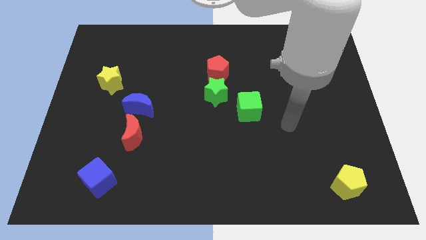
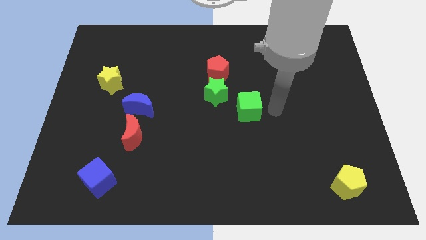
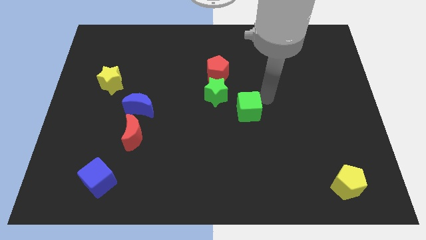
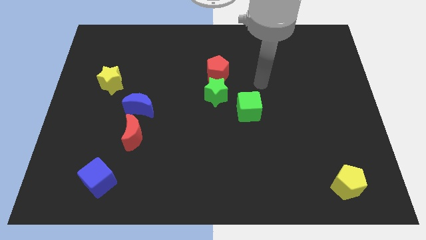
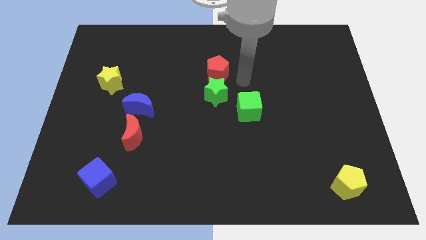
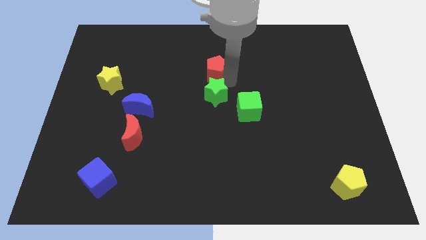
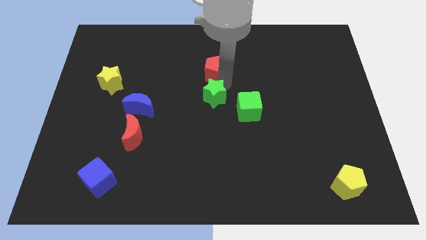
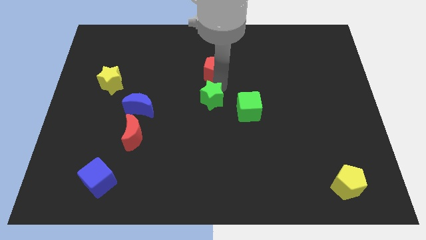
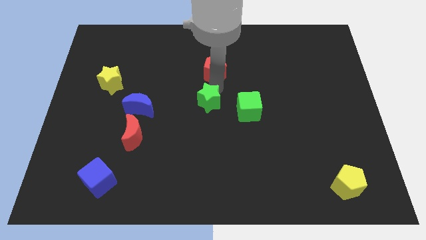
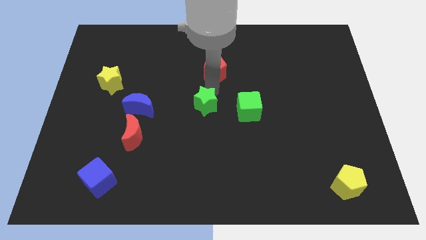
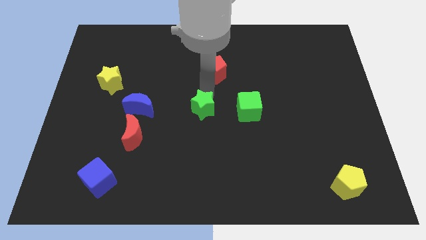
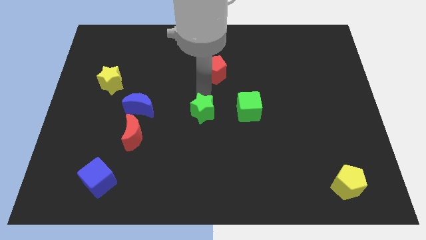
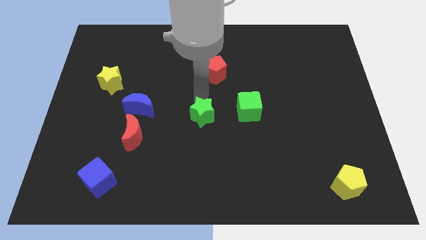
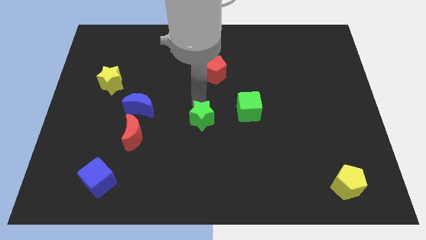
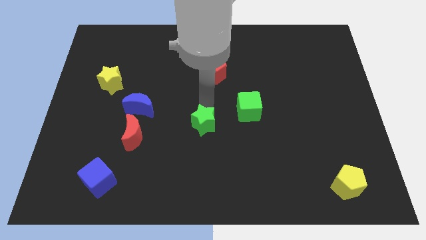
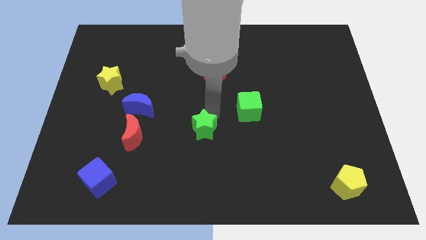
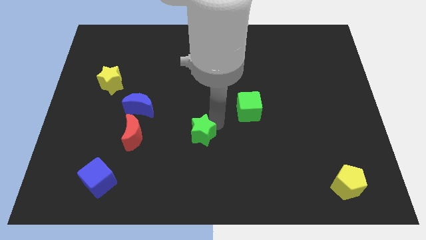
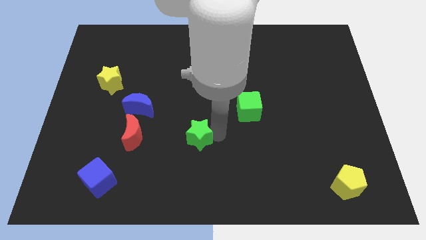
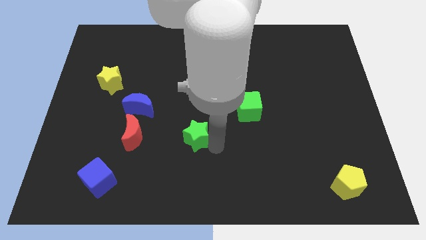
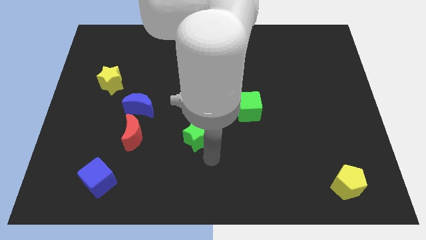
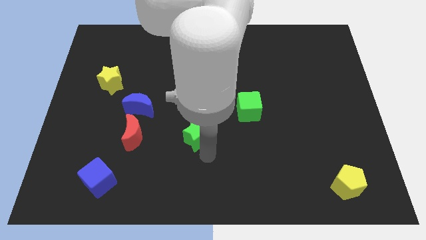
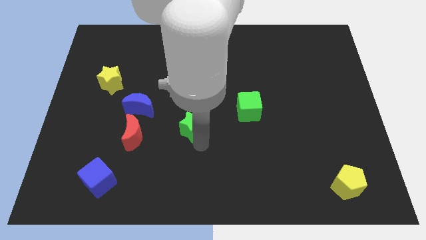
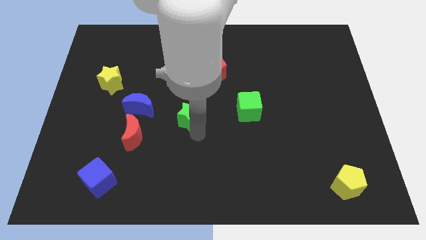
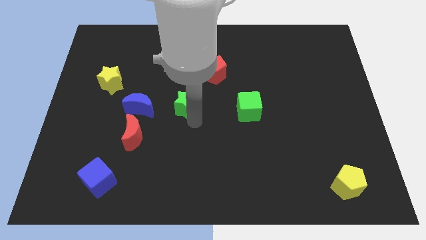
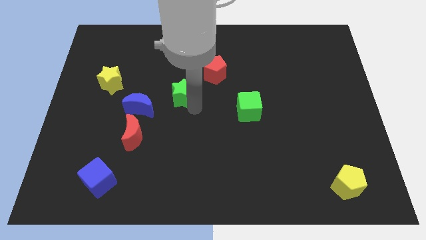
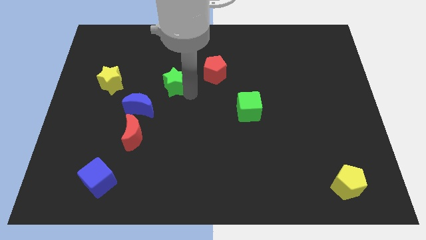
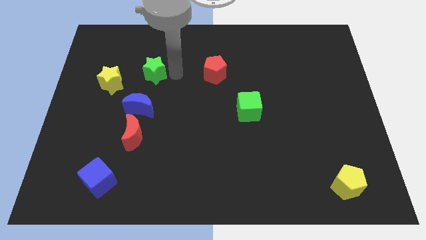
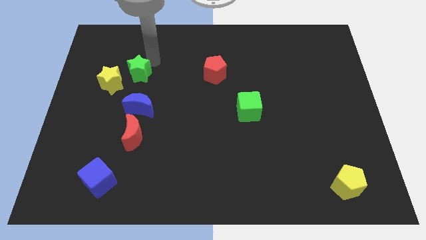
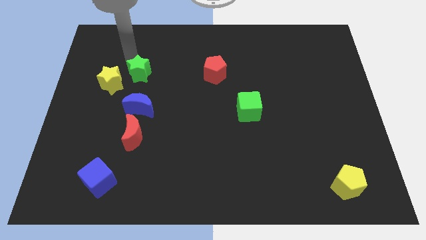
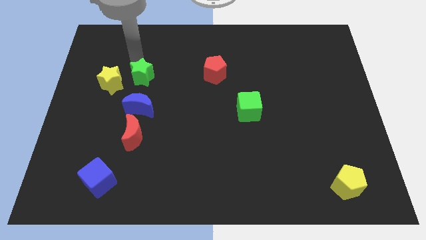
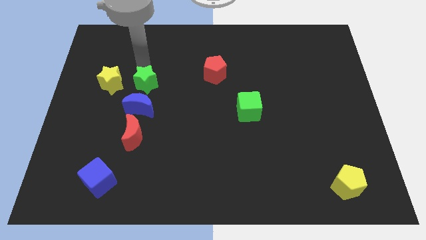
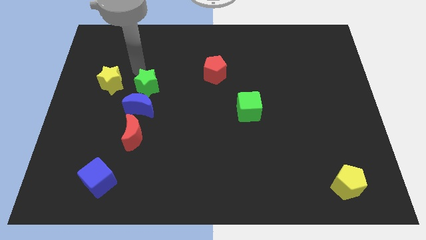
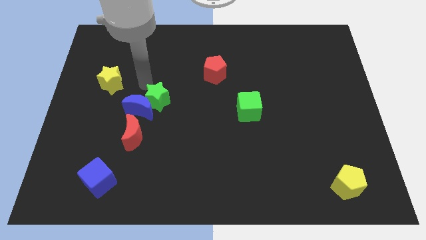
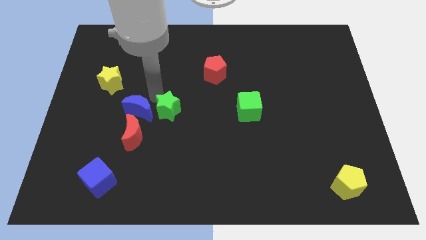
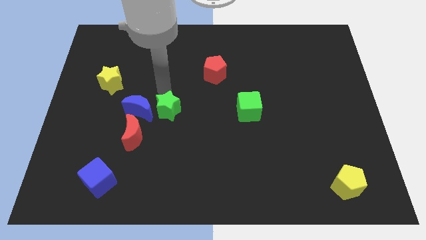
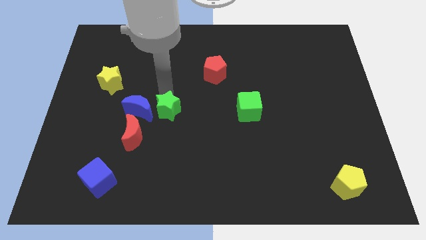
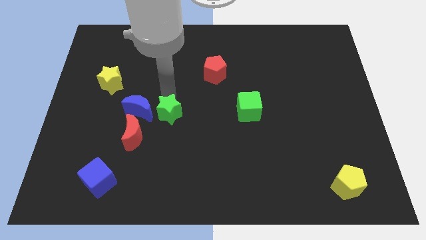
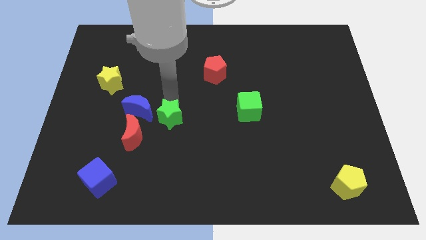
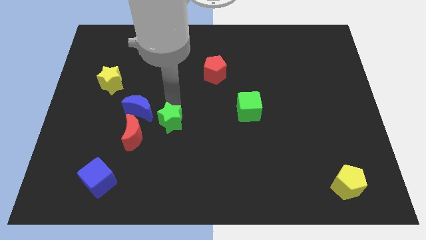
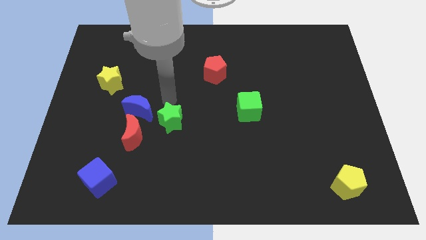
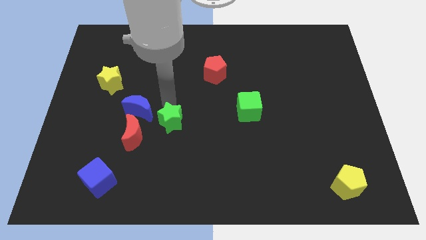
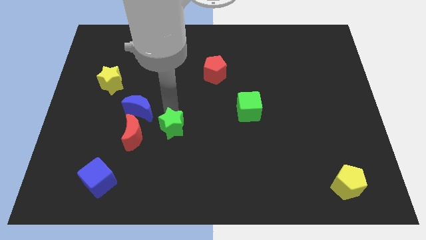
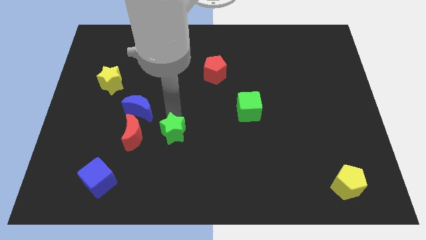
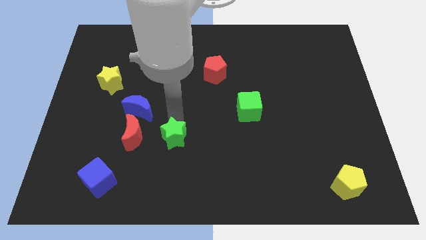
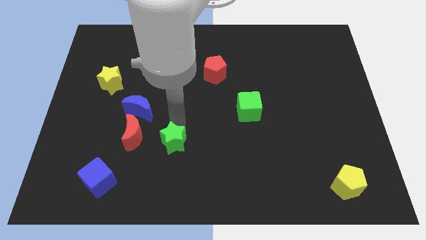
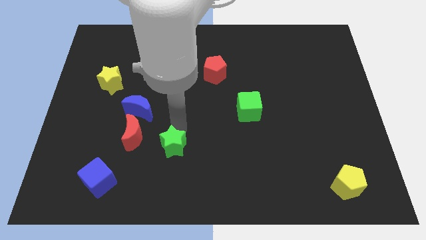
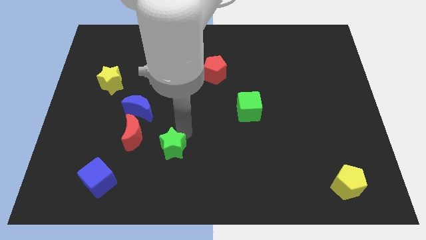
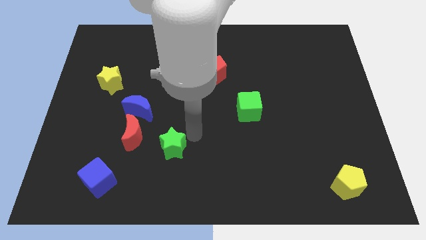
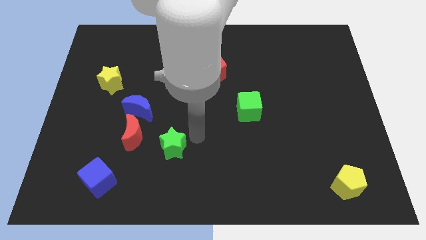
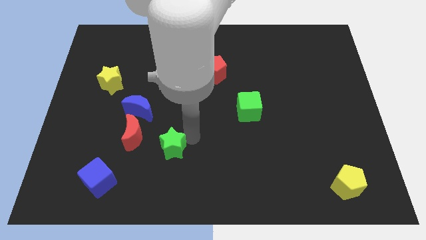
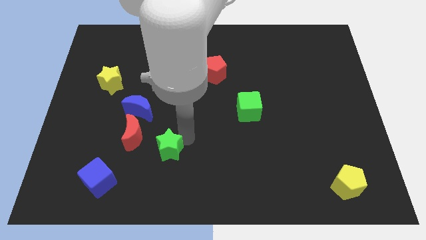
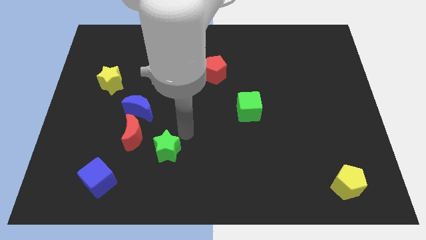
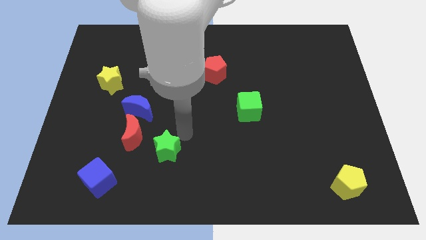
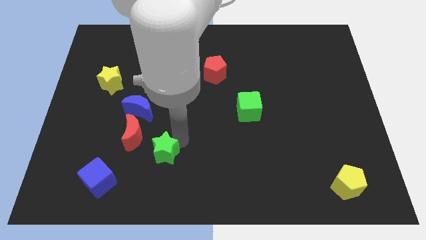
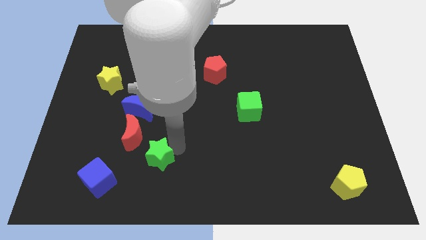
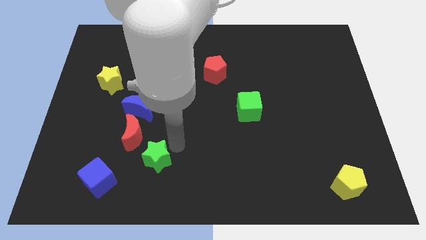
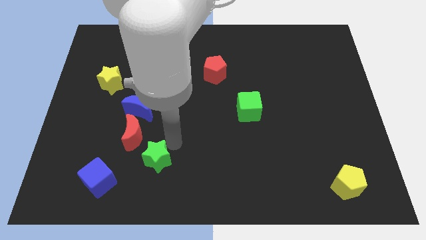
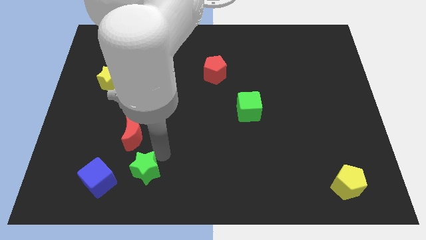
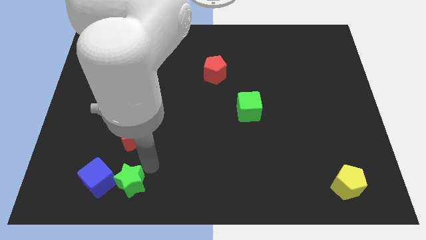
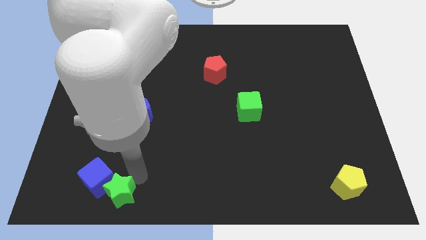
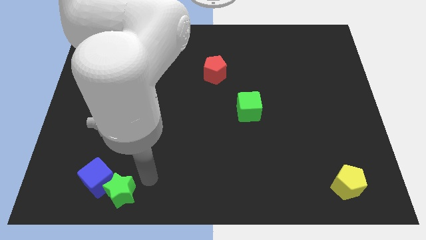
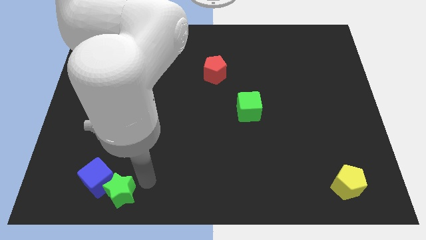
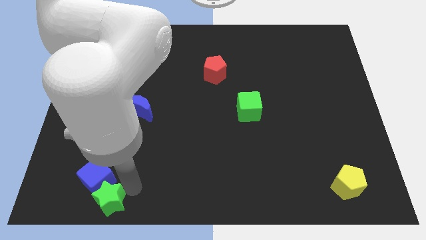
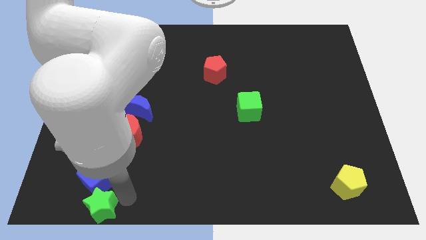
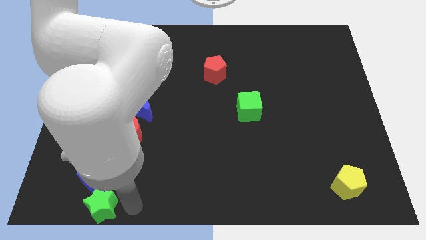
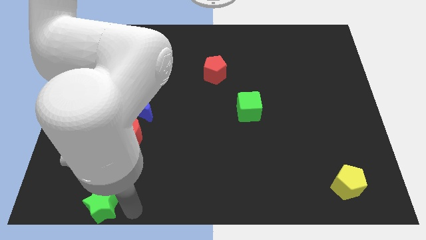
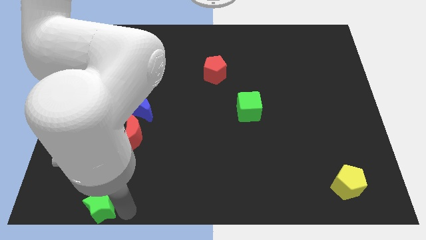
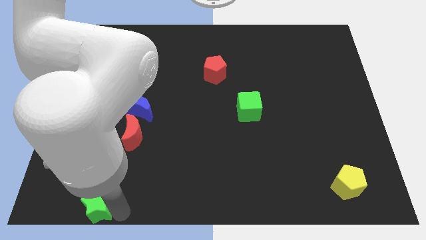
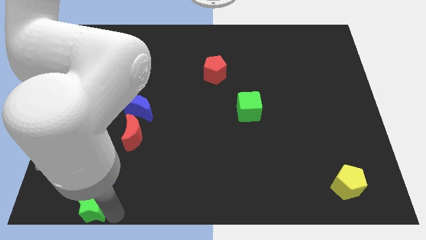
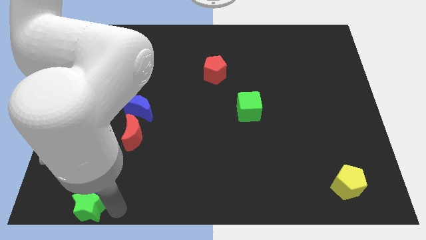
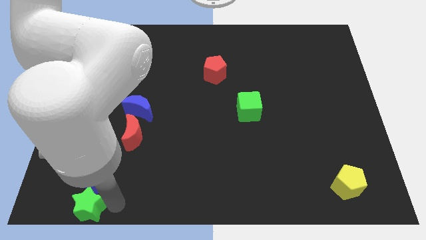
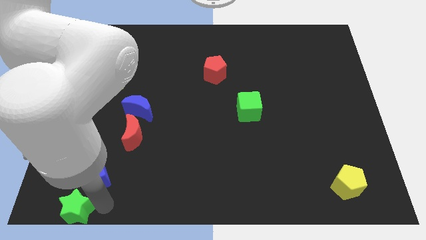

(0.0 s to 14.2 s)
slide the green star to the bottom left
